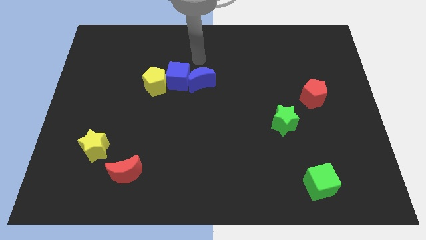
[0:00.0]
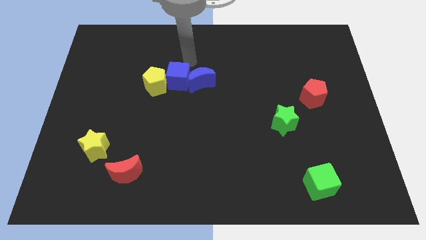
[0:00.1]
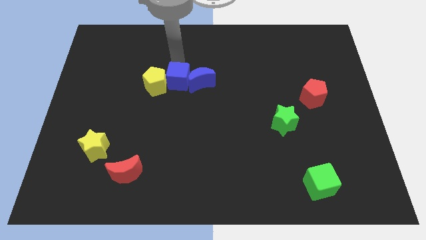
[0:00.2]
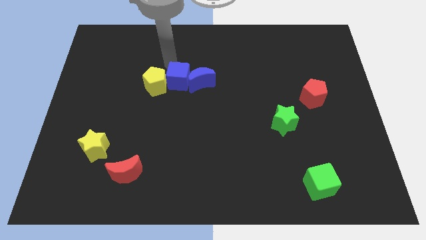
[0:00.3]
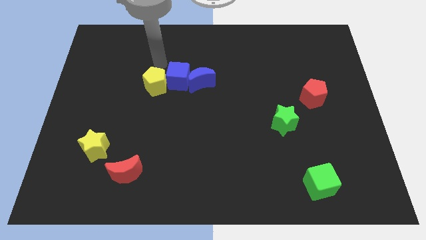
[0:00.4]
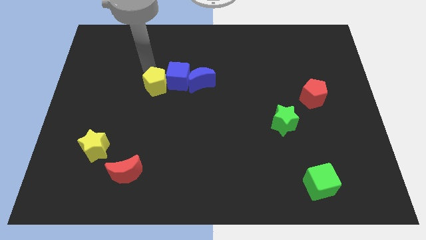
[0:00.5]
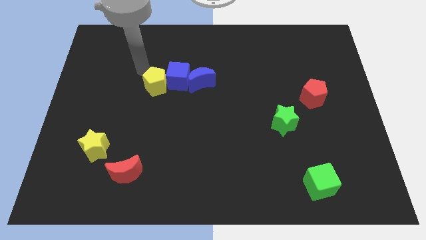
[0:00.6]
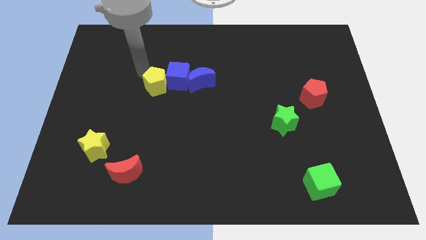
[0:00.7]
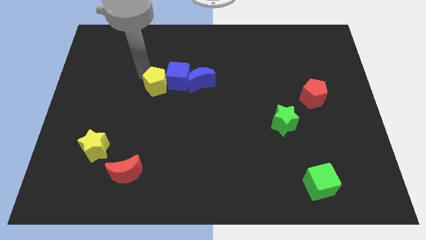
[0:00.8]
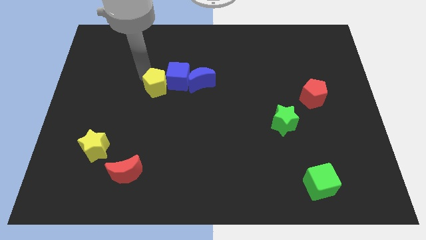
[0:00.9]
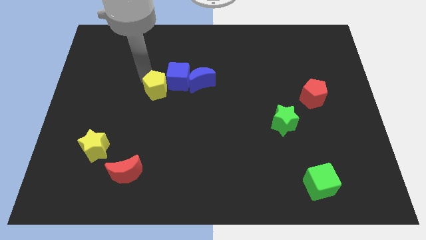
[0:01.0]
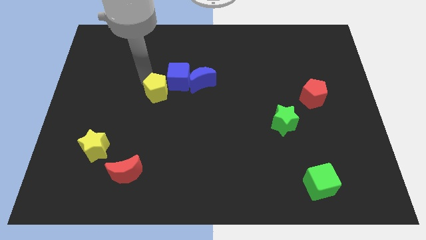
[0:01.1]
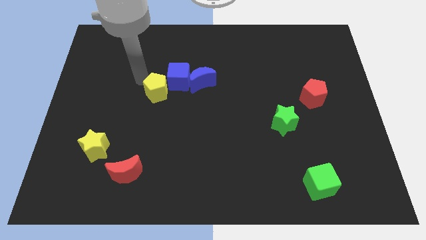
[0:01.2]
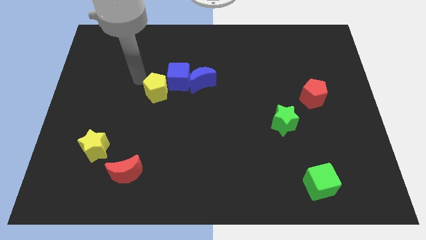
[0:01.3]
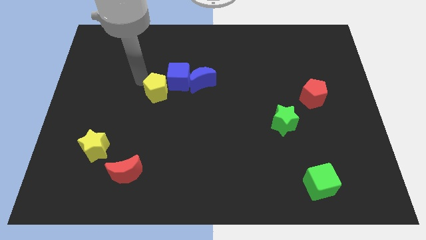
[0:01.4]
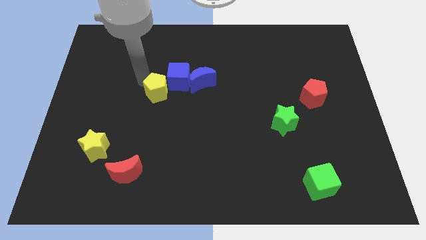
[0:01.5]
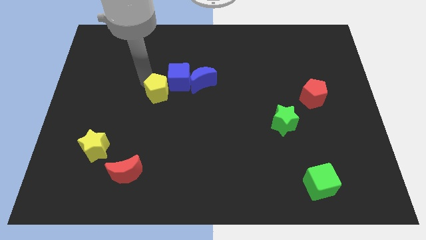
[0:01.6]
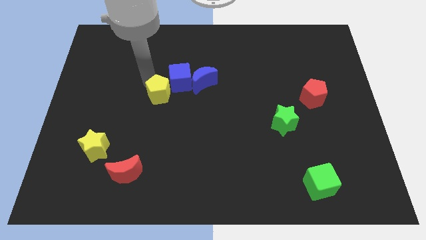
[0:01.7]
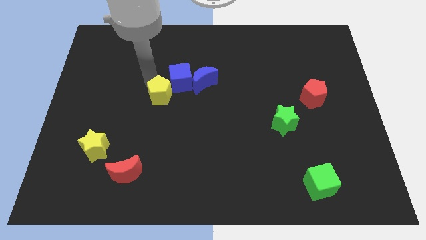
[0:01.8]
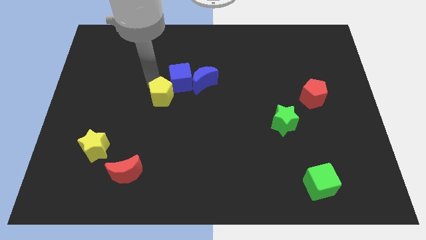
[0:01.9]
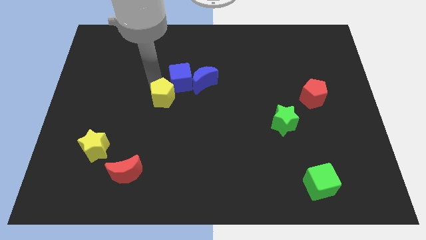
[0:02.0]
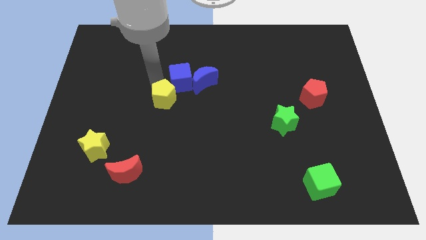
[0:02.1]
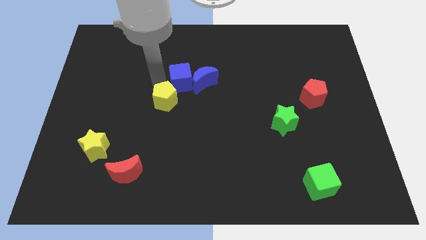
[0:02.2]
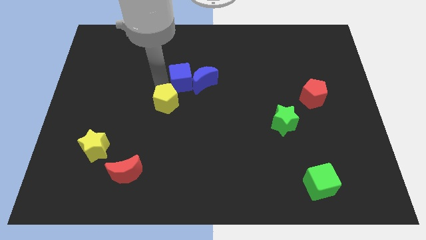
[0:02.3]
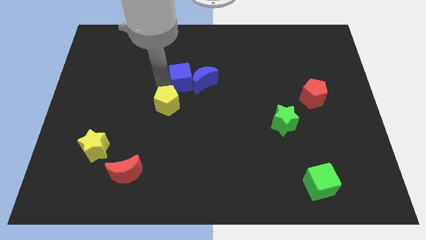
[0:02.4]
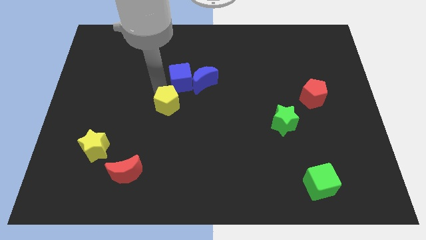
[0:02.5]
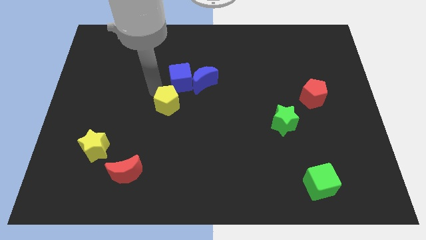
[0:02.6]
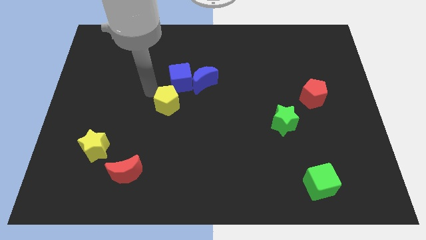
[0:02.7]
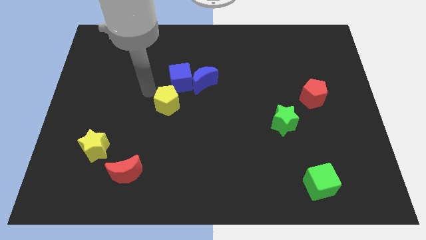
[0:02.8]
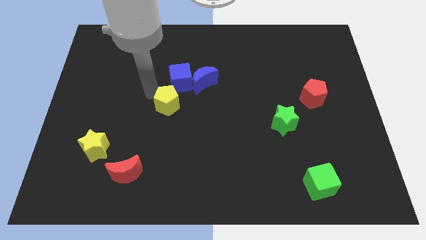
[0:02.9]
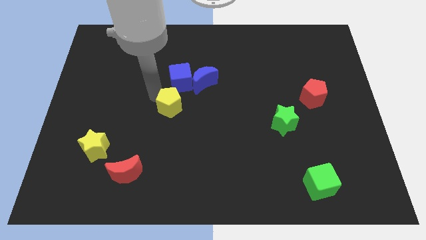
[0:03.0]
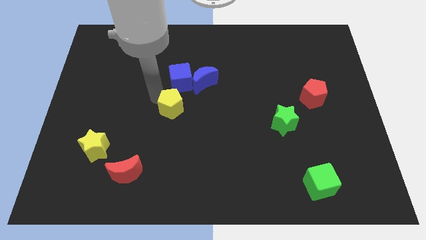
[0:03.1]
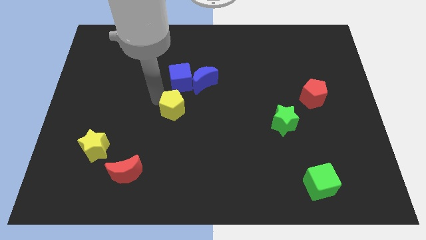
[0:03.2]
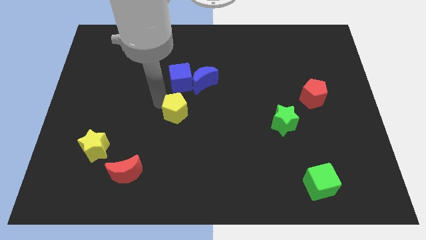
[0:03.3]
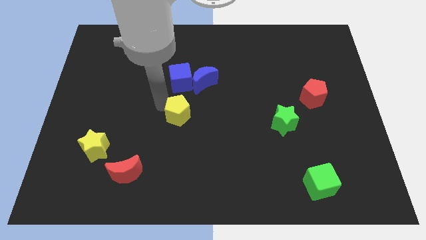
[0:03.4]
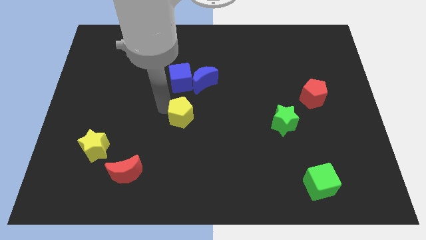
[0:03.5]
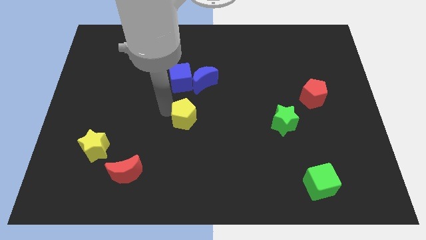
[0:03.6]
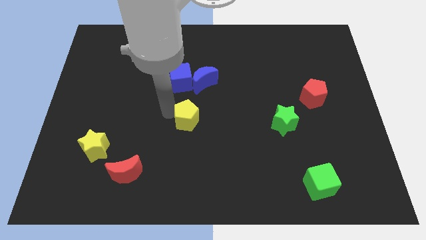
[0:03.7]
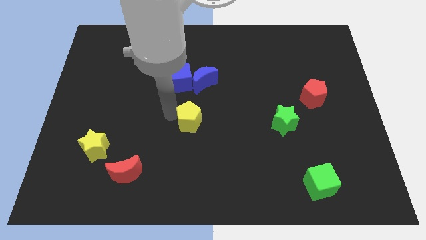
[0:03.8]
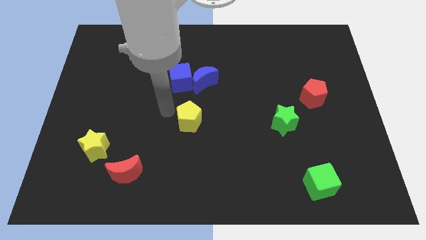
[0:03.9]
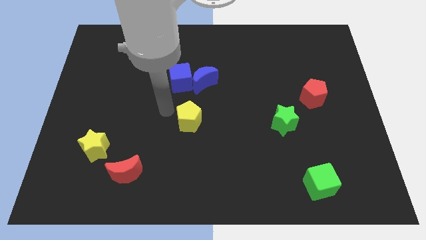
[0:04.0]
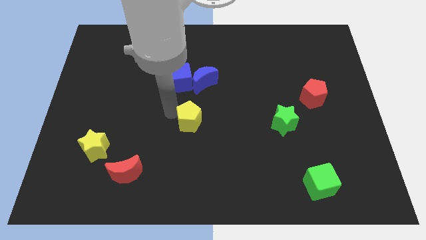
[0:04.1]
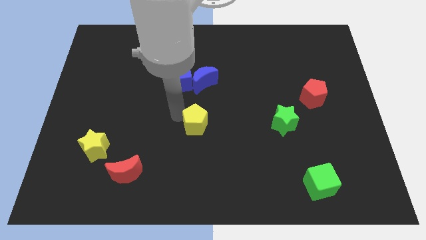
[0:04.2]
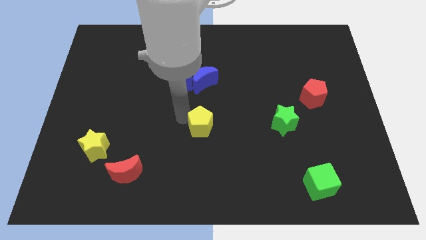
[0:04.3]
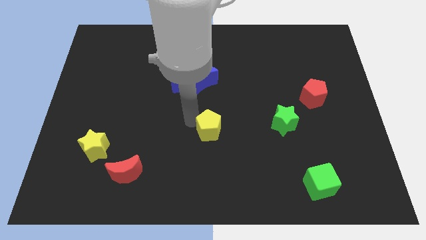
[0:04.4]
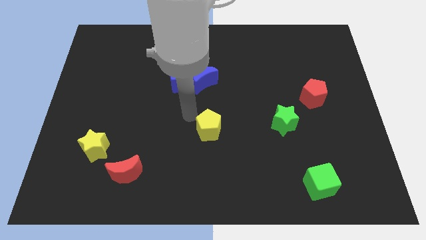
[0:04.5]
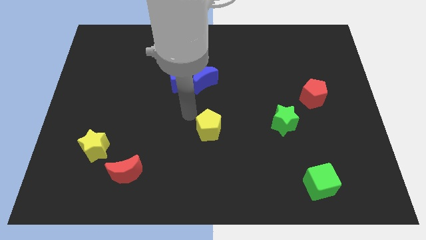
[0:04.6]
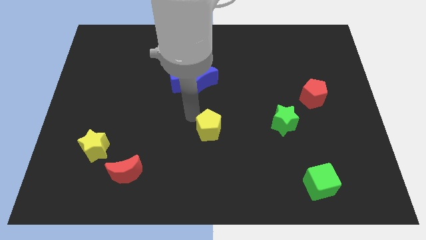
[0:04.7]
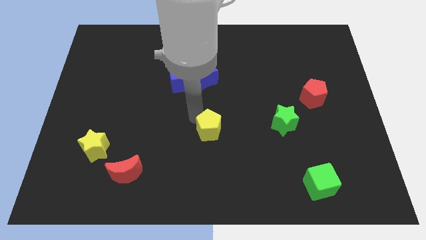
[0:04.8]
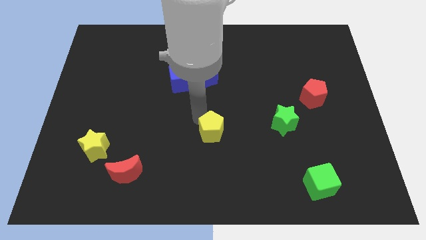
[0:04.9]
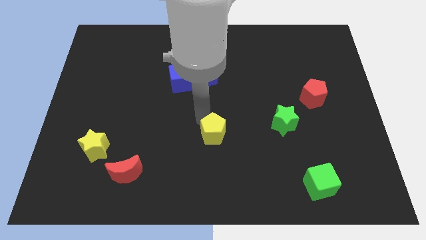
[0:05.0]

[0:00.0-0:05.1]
push the yellow pentagon diagonally down and to the right

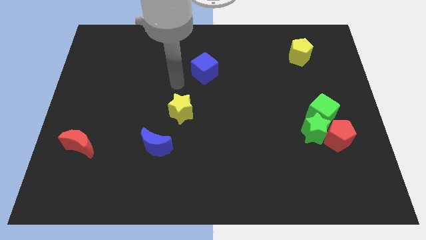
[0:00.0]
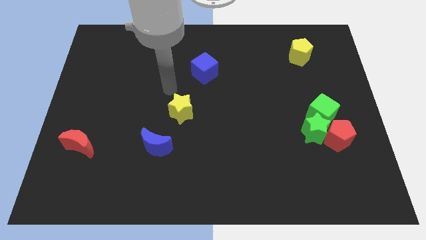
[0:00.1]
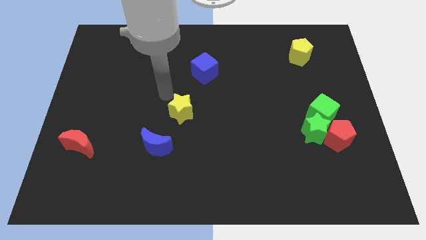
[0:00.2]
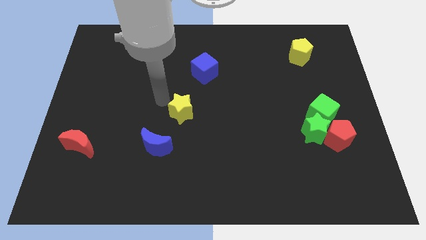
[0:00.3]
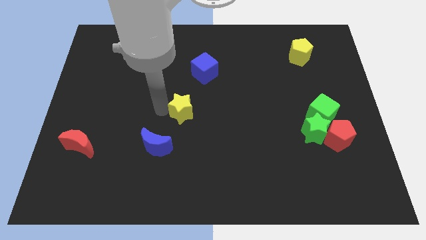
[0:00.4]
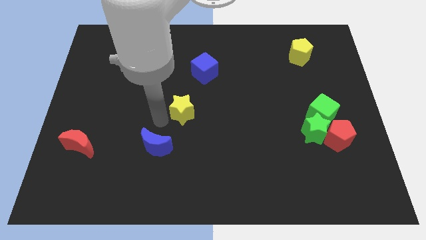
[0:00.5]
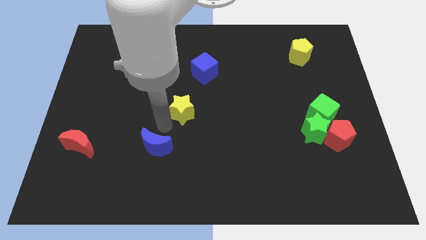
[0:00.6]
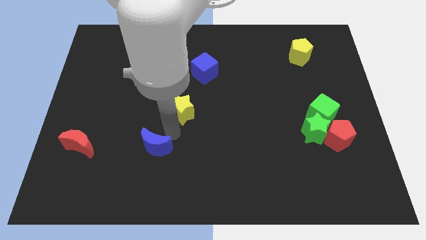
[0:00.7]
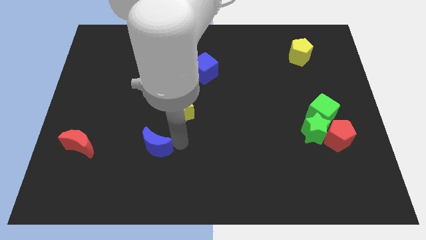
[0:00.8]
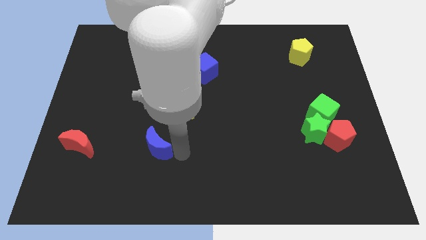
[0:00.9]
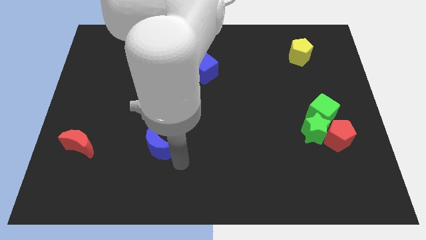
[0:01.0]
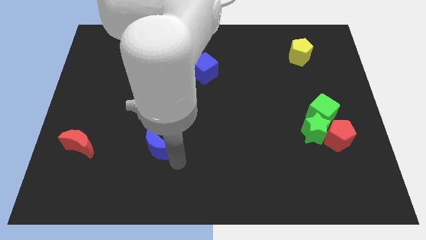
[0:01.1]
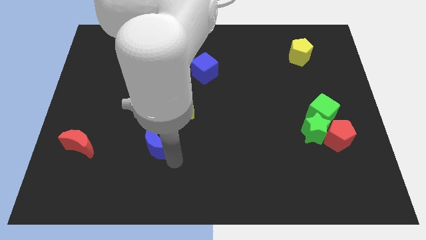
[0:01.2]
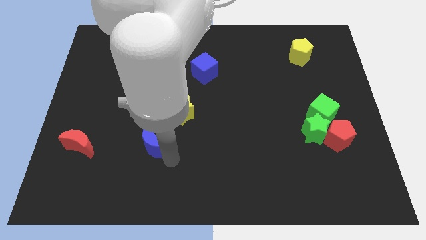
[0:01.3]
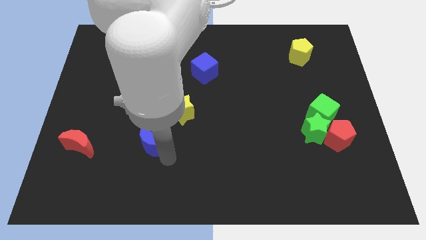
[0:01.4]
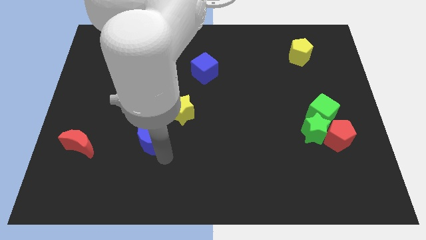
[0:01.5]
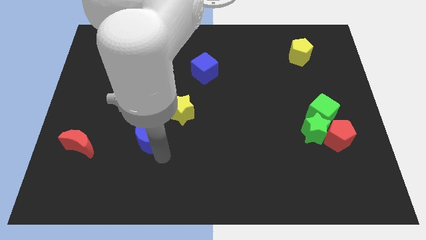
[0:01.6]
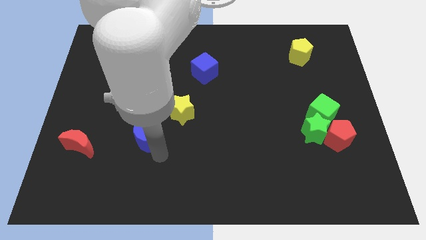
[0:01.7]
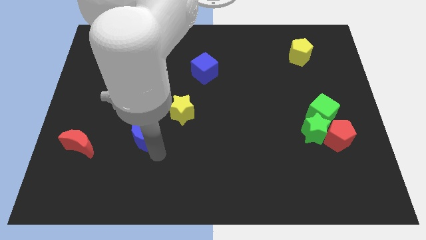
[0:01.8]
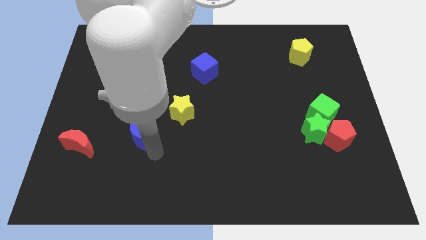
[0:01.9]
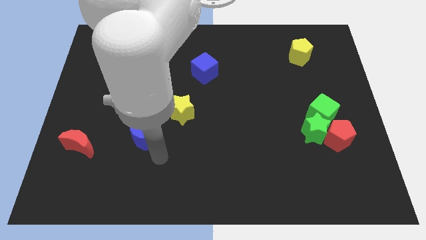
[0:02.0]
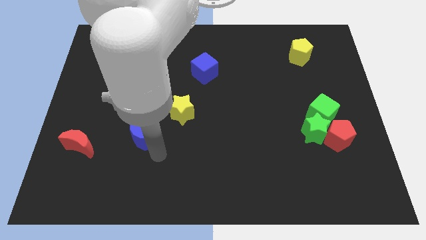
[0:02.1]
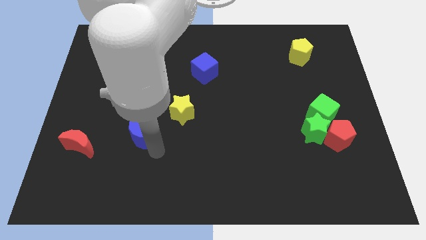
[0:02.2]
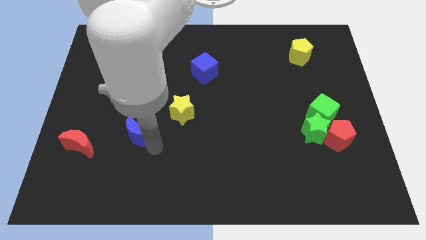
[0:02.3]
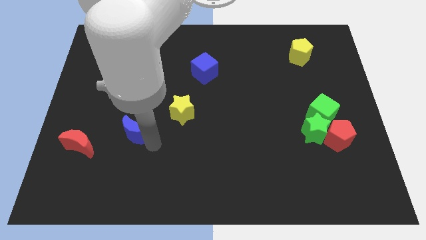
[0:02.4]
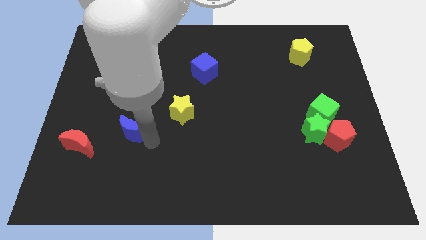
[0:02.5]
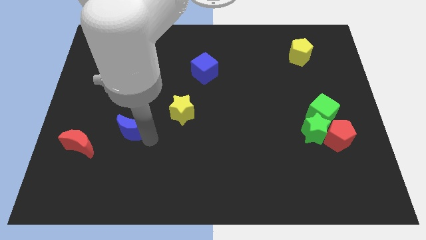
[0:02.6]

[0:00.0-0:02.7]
move the blue moon a little bit up and then left

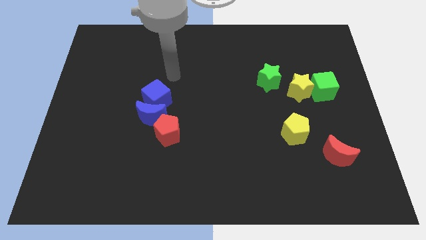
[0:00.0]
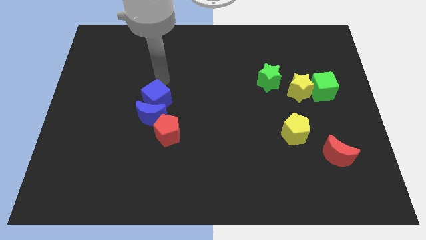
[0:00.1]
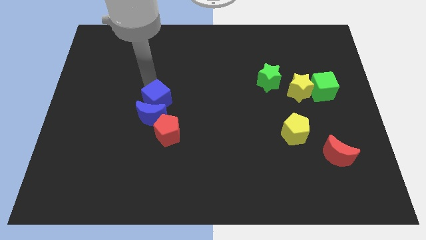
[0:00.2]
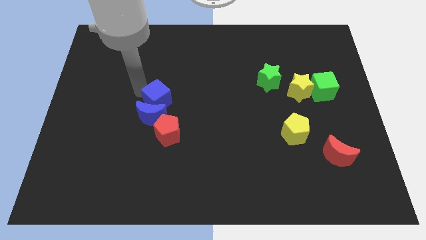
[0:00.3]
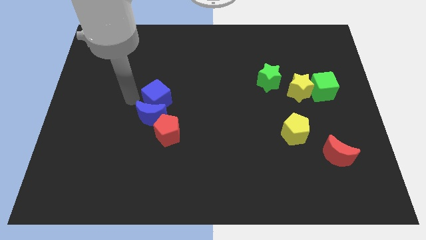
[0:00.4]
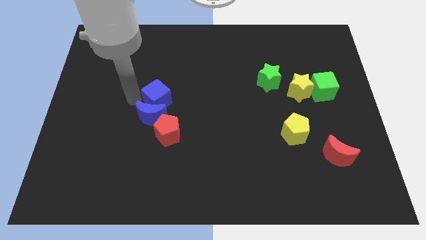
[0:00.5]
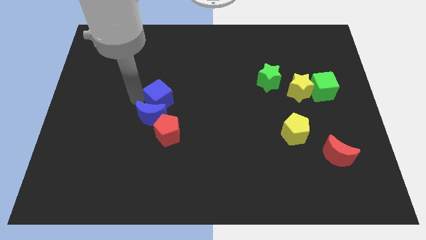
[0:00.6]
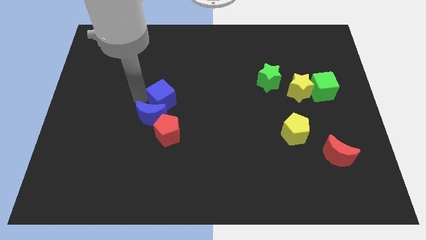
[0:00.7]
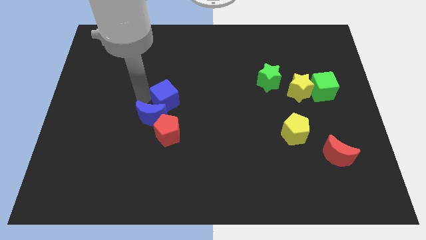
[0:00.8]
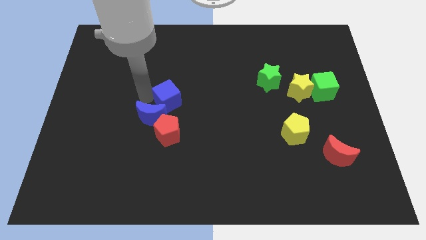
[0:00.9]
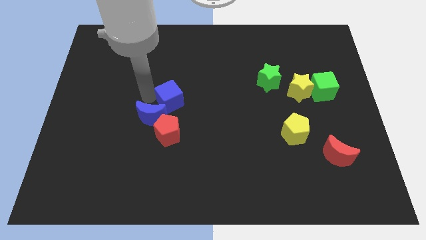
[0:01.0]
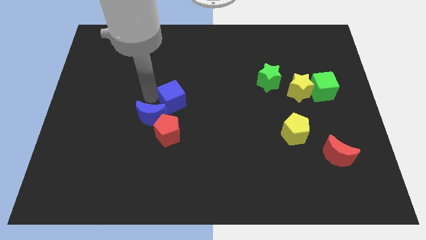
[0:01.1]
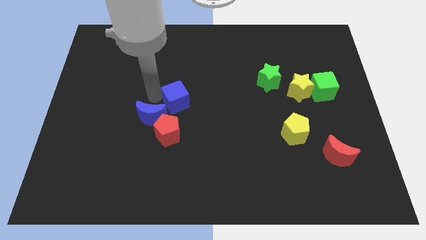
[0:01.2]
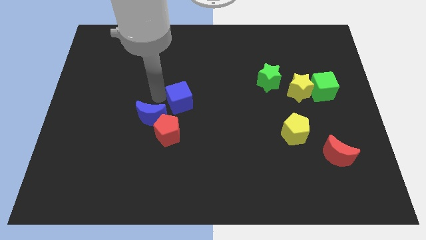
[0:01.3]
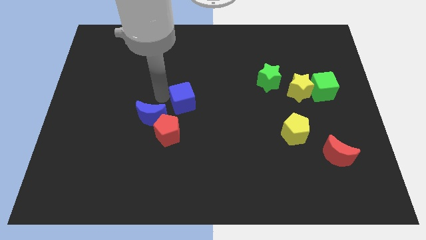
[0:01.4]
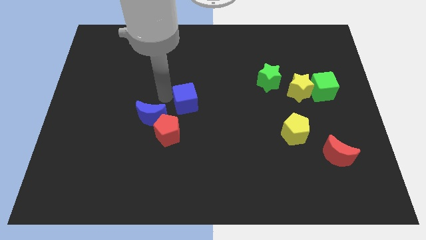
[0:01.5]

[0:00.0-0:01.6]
push the blue cube to the right a bit
